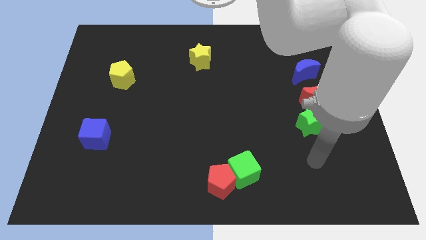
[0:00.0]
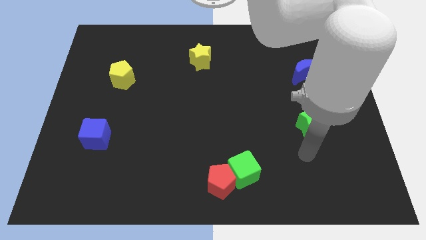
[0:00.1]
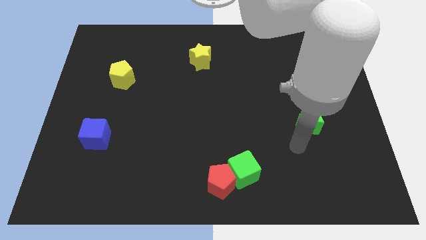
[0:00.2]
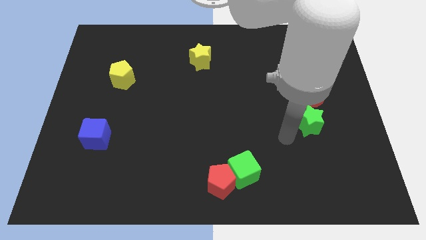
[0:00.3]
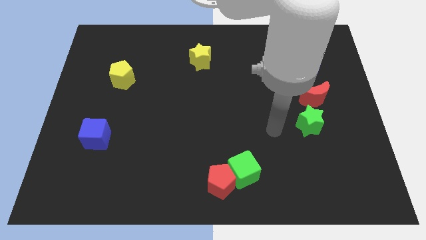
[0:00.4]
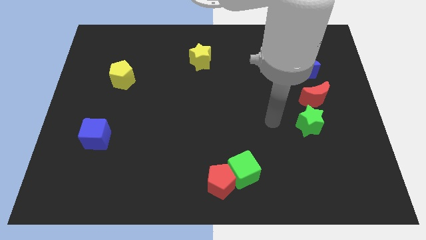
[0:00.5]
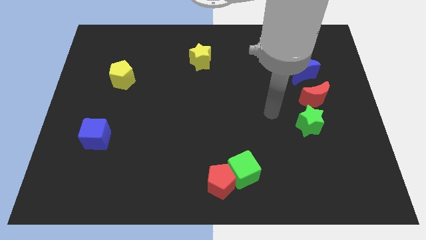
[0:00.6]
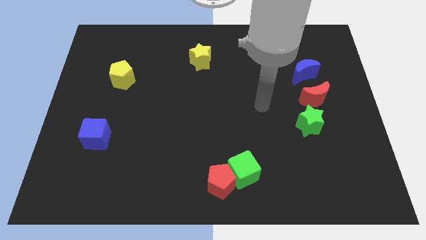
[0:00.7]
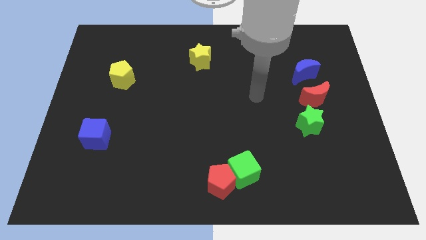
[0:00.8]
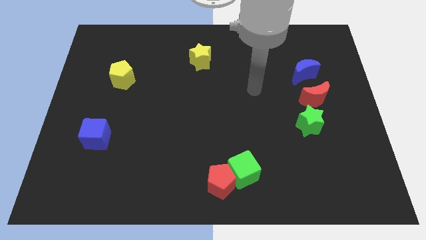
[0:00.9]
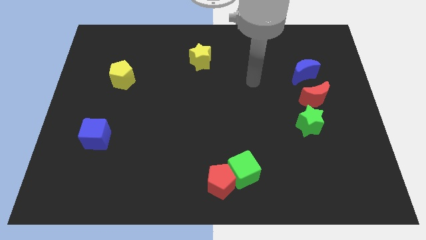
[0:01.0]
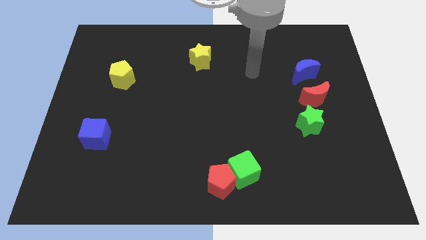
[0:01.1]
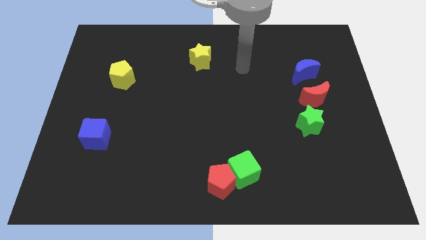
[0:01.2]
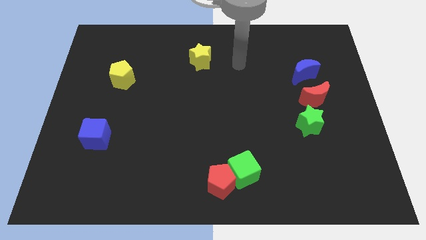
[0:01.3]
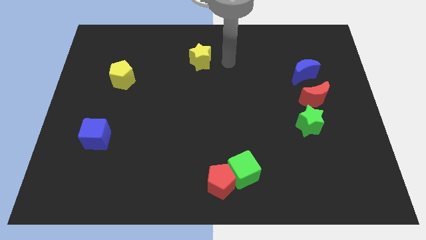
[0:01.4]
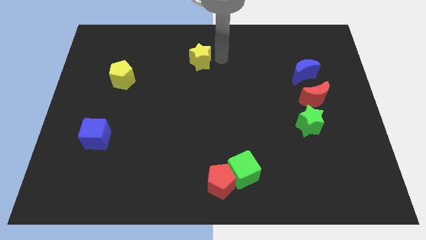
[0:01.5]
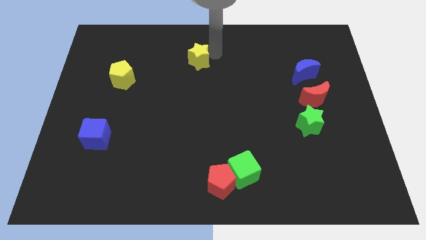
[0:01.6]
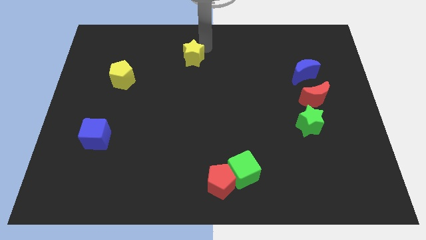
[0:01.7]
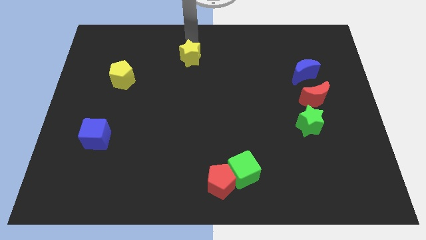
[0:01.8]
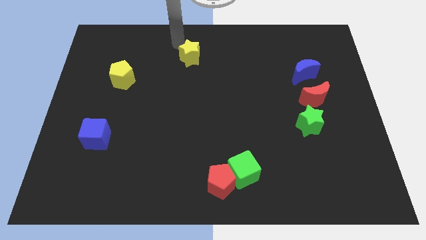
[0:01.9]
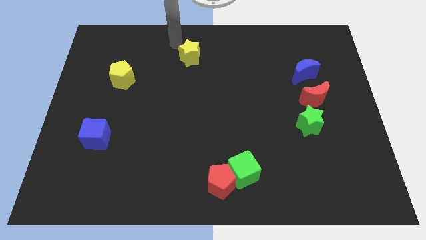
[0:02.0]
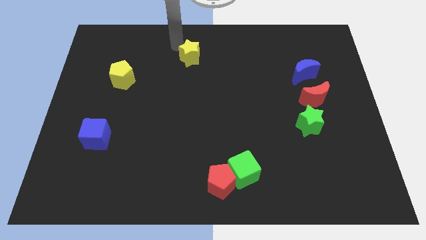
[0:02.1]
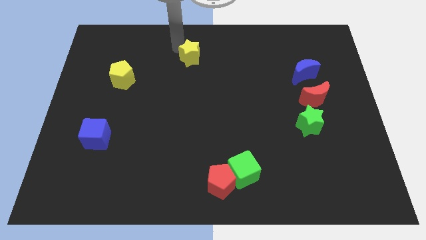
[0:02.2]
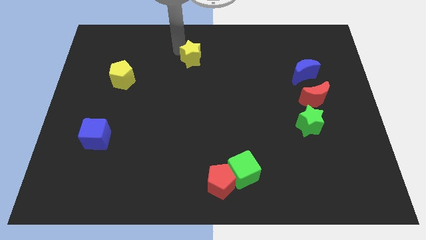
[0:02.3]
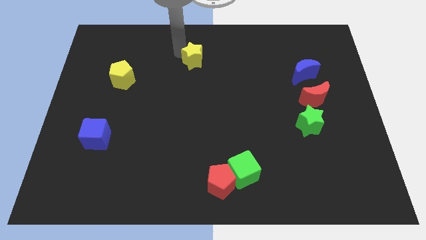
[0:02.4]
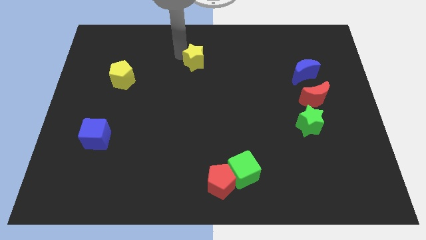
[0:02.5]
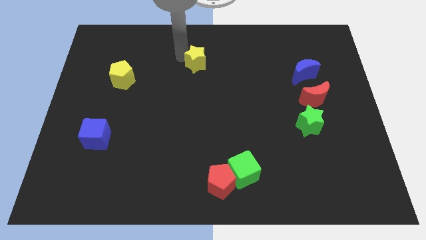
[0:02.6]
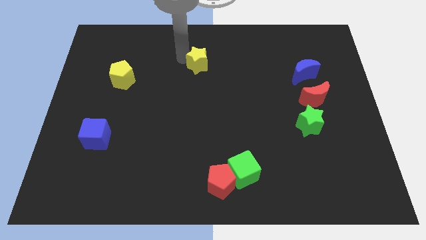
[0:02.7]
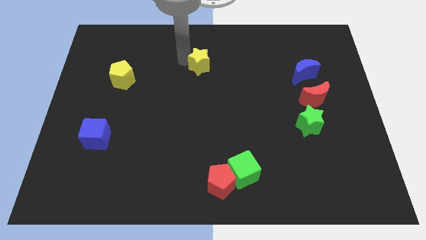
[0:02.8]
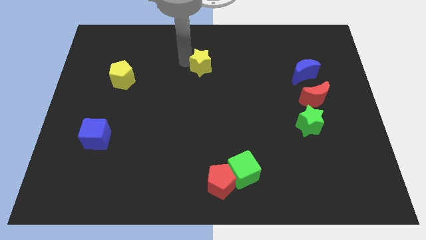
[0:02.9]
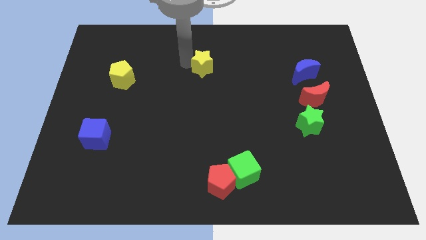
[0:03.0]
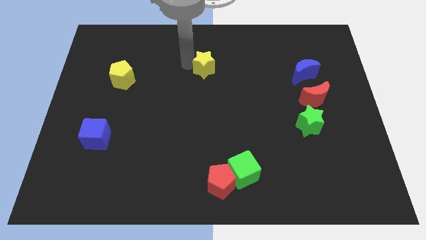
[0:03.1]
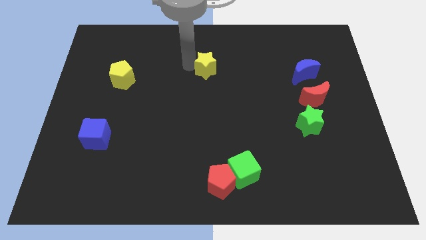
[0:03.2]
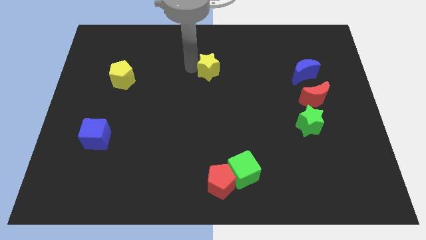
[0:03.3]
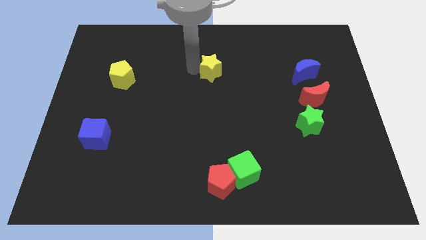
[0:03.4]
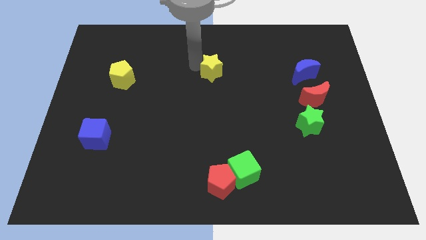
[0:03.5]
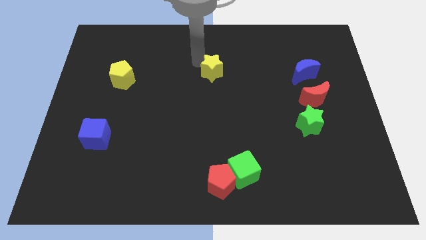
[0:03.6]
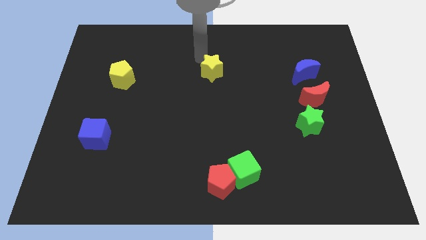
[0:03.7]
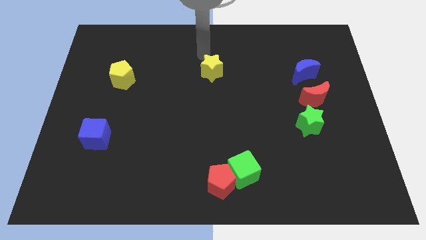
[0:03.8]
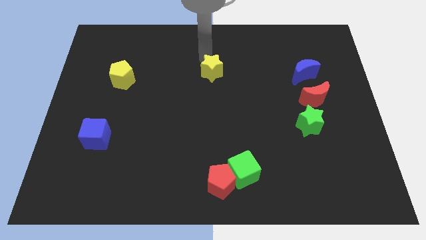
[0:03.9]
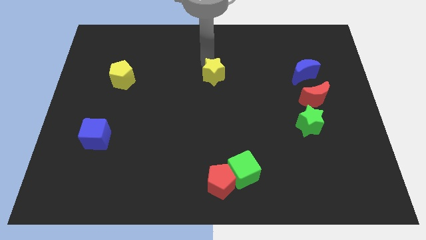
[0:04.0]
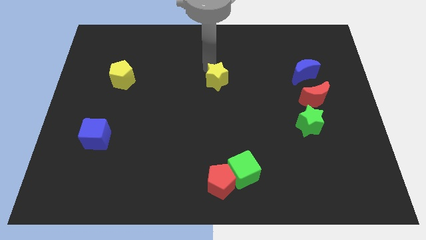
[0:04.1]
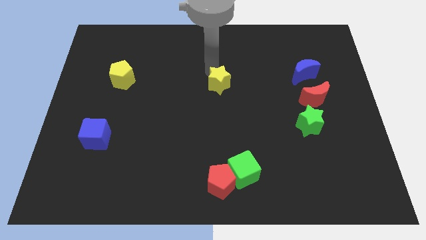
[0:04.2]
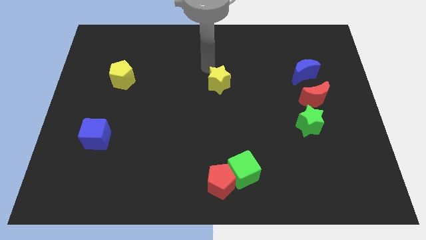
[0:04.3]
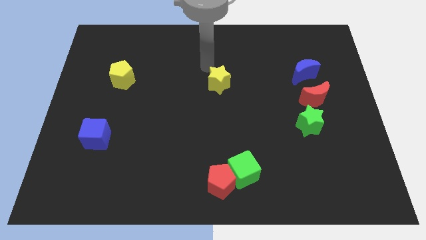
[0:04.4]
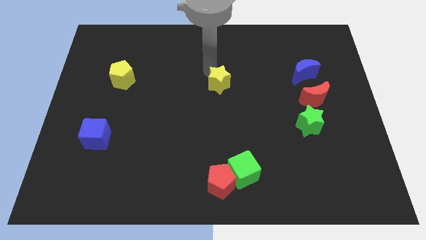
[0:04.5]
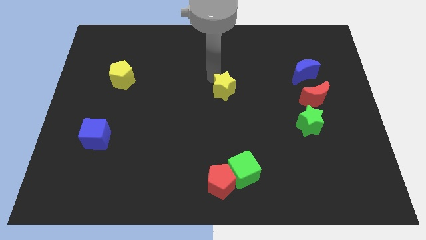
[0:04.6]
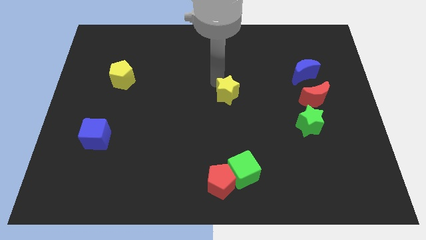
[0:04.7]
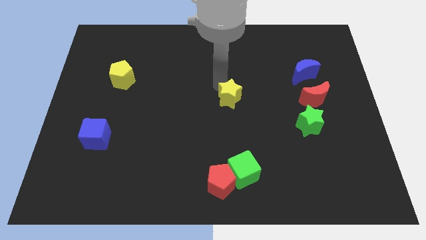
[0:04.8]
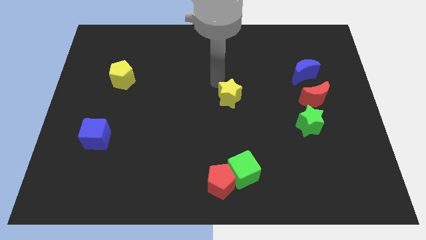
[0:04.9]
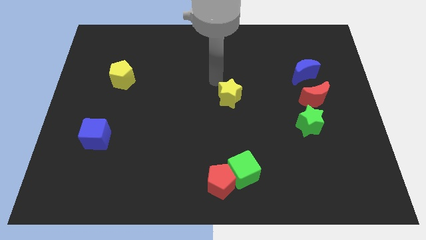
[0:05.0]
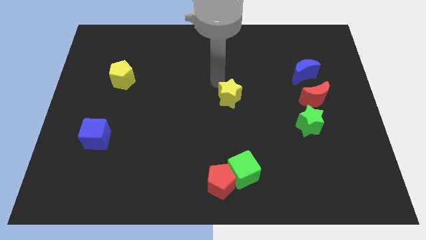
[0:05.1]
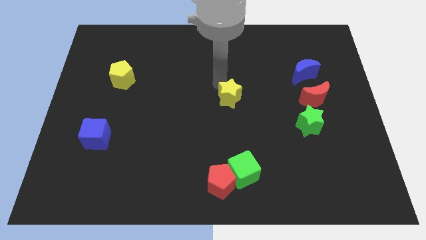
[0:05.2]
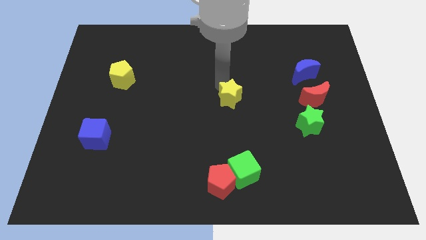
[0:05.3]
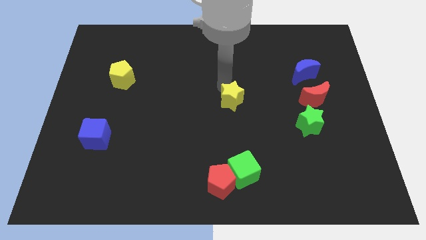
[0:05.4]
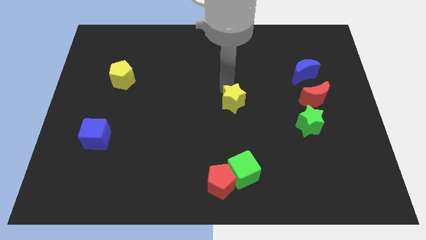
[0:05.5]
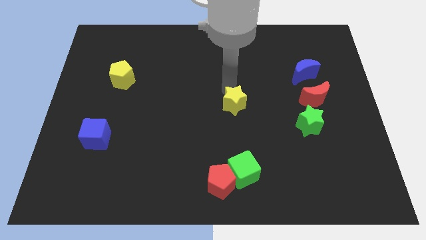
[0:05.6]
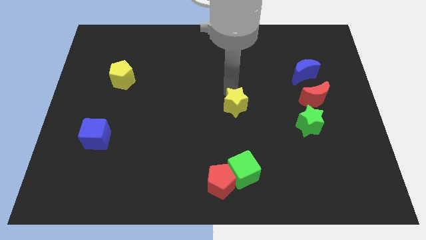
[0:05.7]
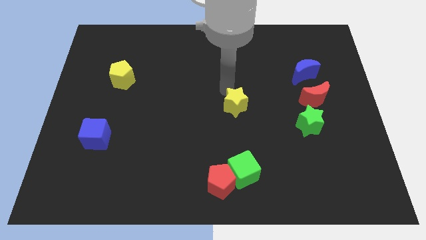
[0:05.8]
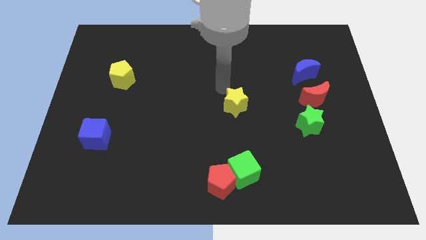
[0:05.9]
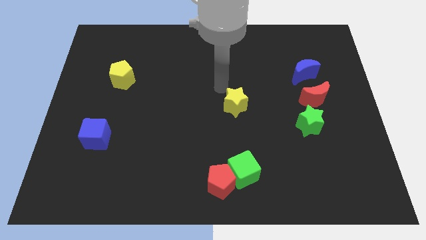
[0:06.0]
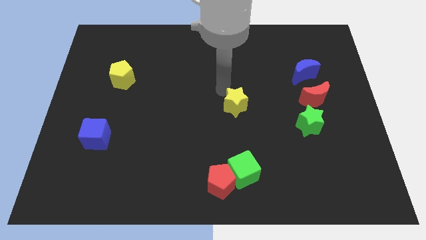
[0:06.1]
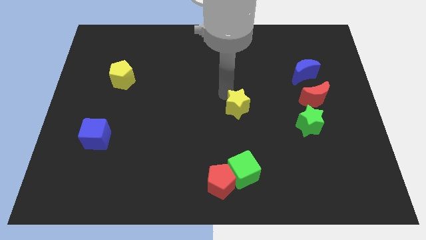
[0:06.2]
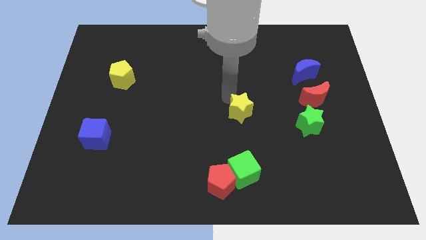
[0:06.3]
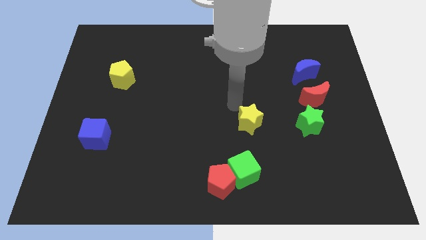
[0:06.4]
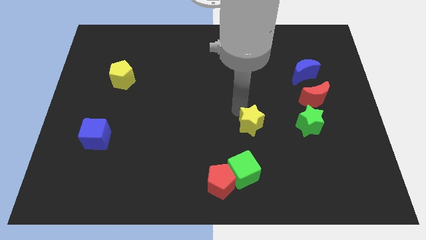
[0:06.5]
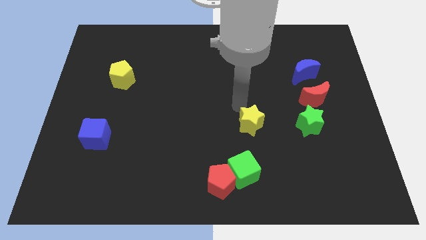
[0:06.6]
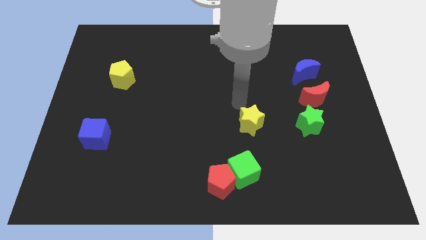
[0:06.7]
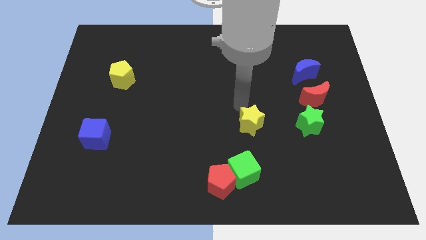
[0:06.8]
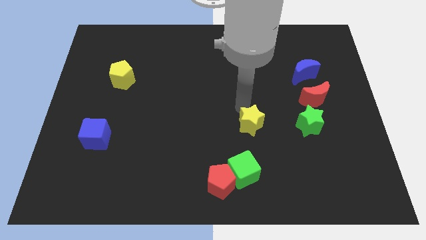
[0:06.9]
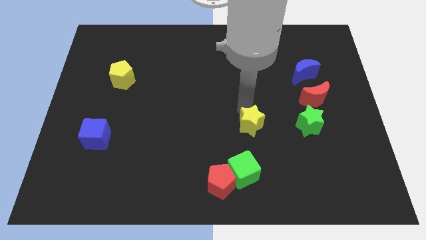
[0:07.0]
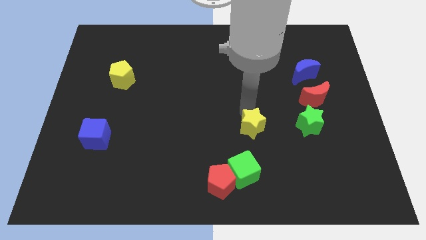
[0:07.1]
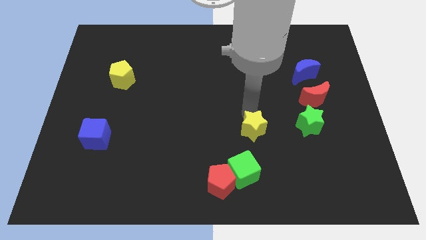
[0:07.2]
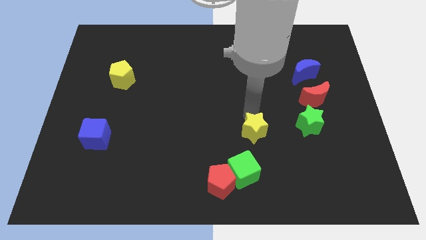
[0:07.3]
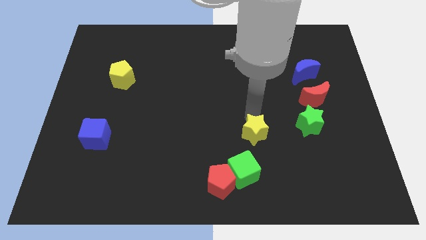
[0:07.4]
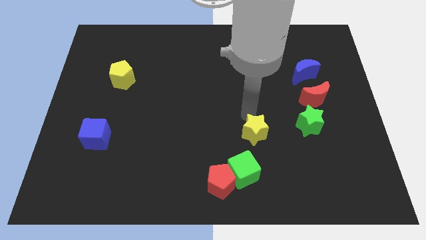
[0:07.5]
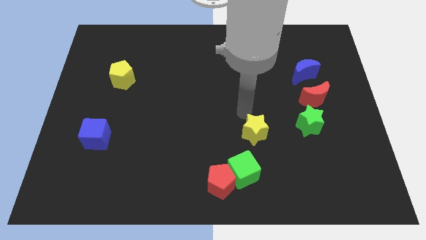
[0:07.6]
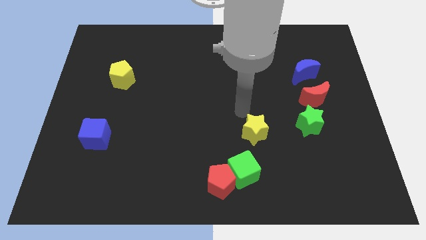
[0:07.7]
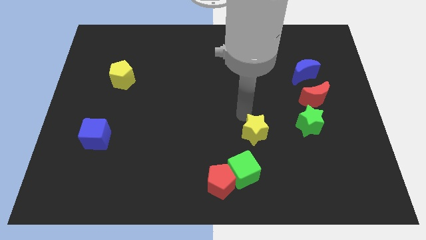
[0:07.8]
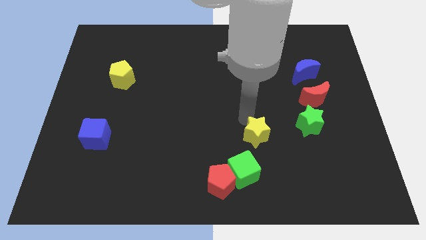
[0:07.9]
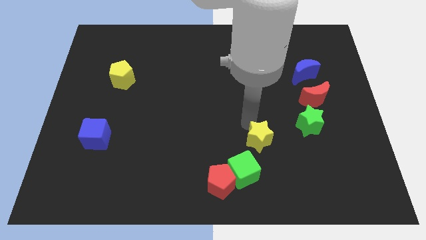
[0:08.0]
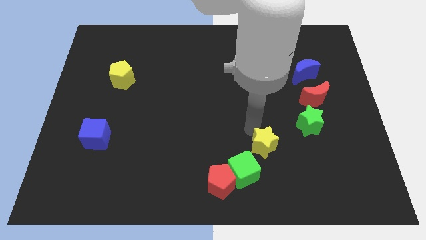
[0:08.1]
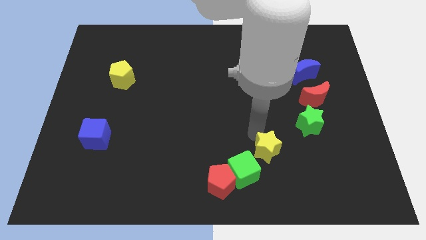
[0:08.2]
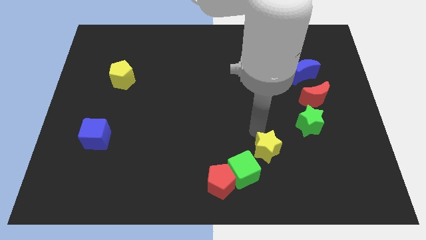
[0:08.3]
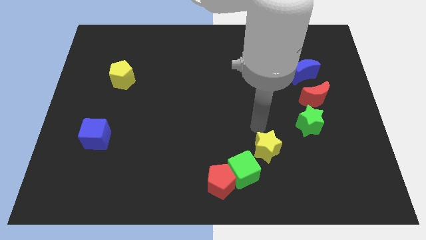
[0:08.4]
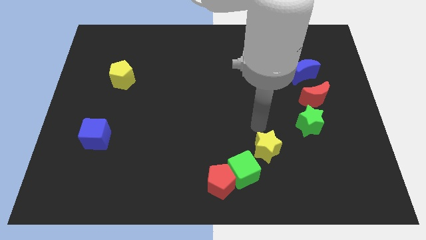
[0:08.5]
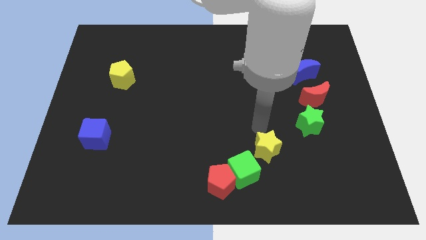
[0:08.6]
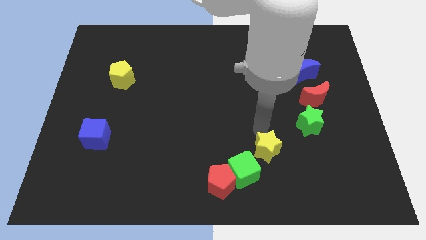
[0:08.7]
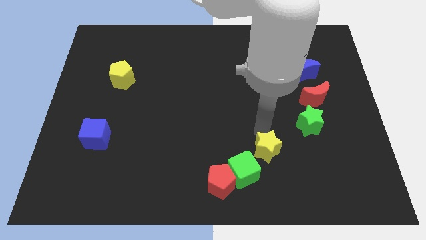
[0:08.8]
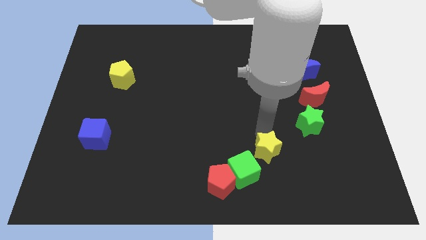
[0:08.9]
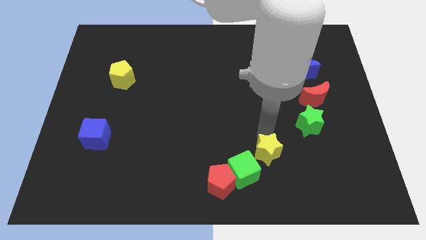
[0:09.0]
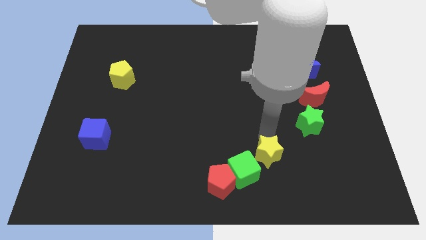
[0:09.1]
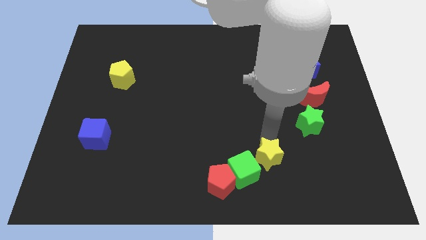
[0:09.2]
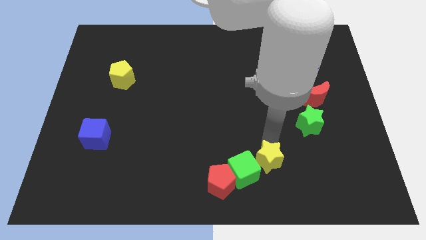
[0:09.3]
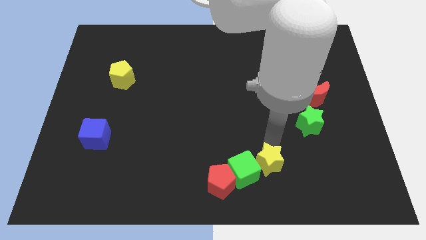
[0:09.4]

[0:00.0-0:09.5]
slide the yellow star just right of the red pentagon
